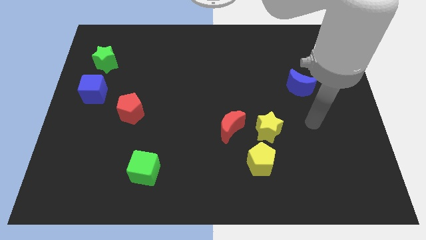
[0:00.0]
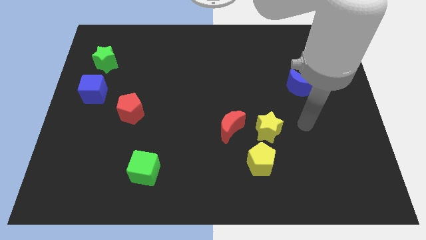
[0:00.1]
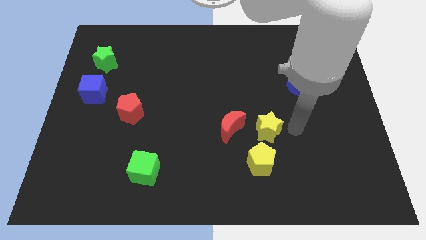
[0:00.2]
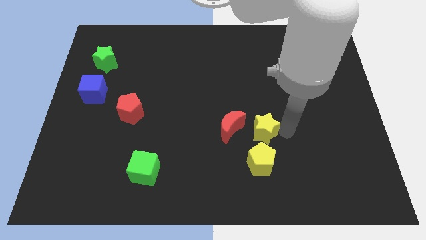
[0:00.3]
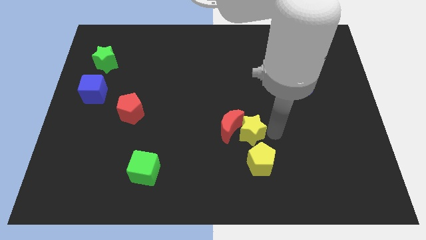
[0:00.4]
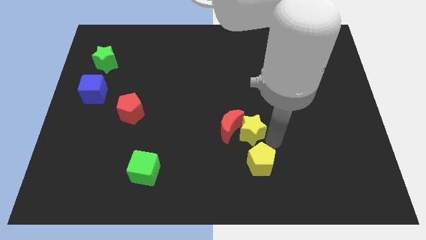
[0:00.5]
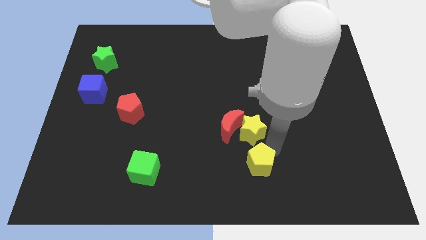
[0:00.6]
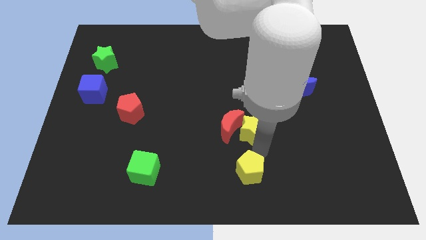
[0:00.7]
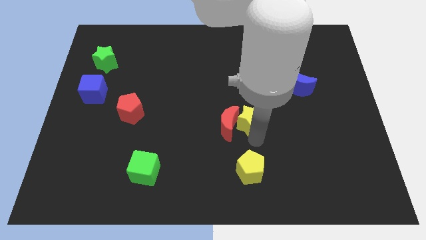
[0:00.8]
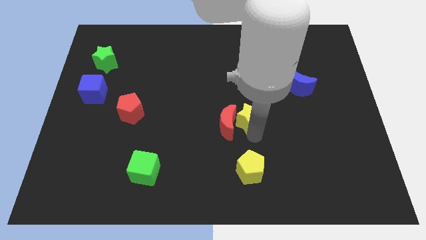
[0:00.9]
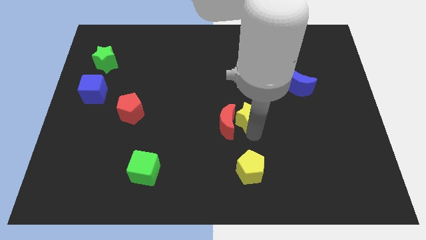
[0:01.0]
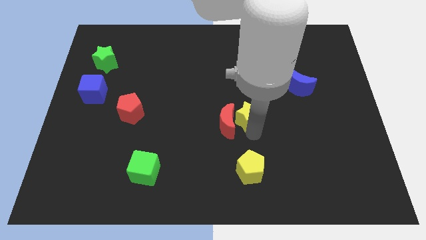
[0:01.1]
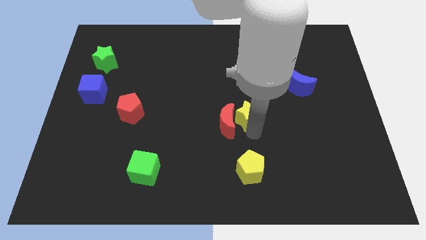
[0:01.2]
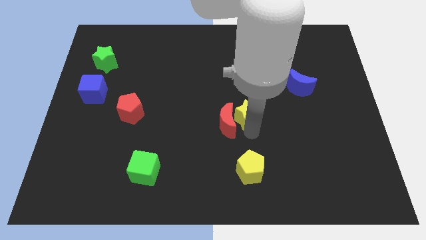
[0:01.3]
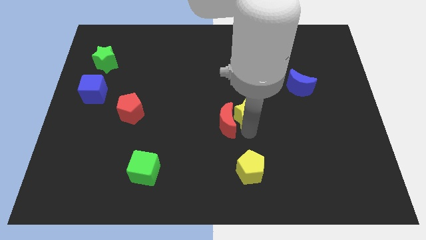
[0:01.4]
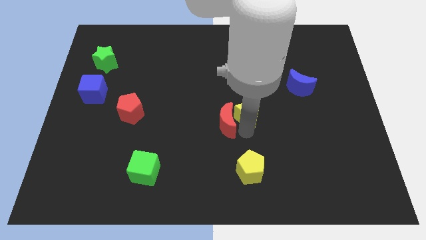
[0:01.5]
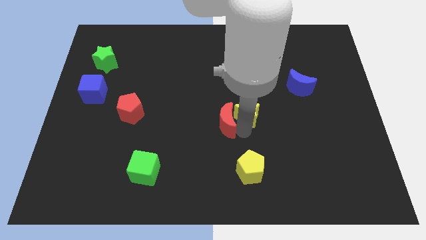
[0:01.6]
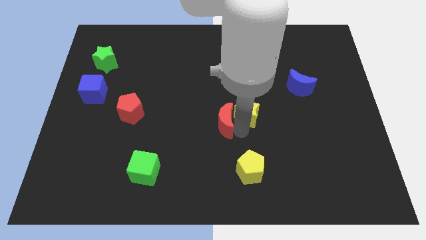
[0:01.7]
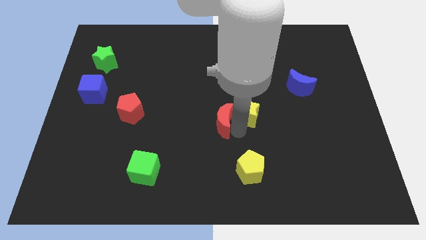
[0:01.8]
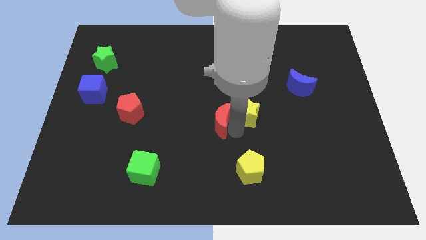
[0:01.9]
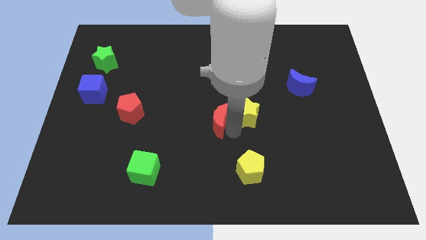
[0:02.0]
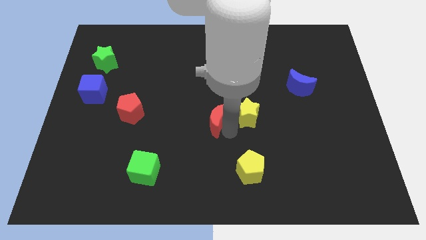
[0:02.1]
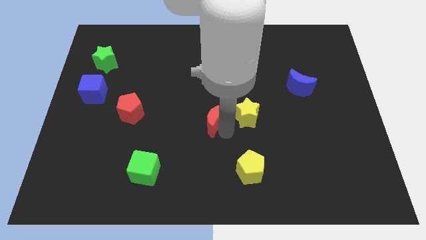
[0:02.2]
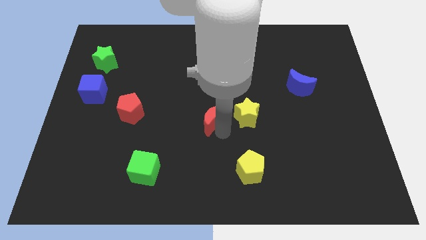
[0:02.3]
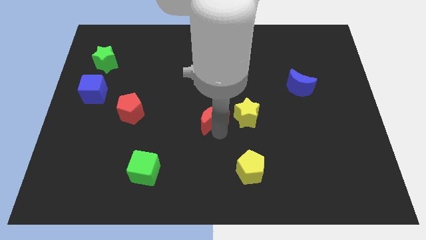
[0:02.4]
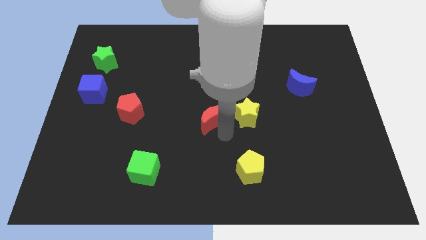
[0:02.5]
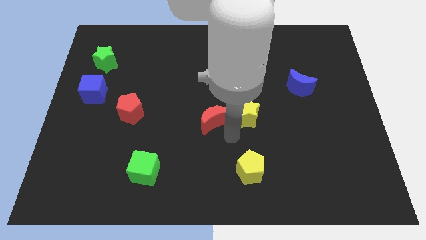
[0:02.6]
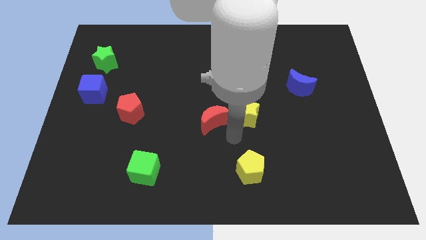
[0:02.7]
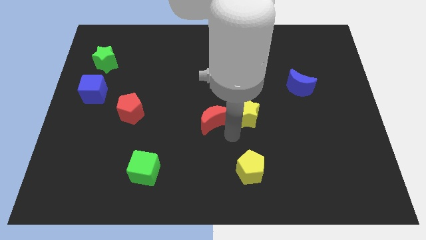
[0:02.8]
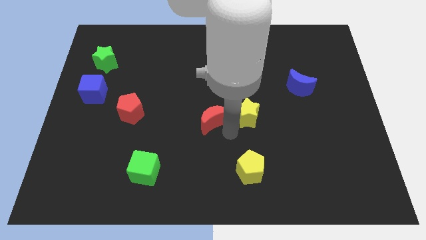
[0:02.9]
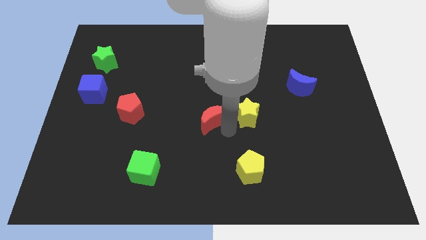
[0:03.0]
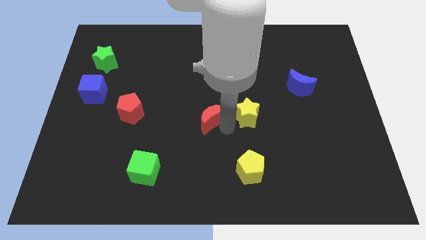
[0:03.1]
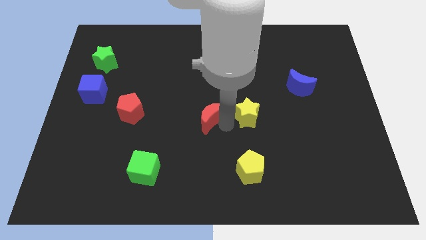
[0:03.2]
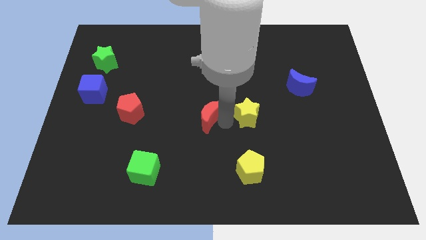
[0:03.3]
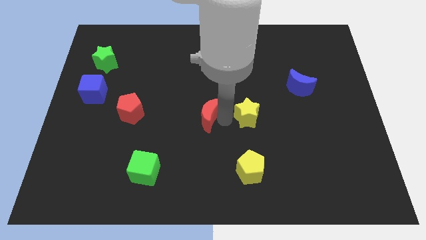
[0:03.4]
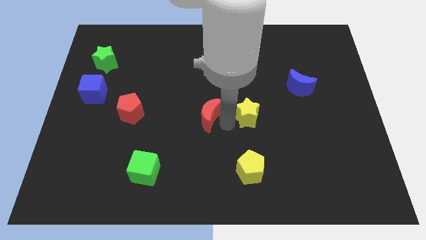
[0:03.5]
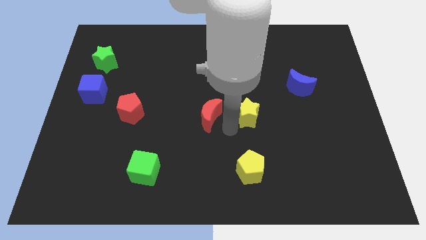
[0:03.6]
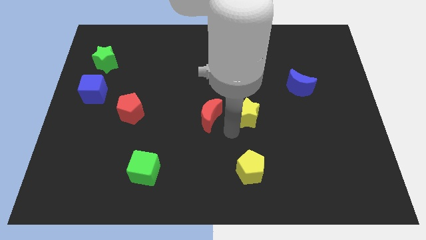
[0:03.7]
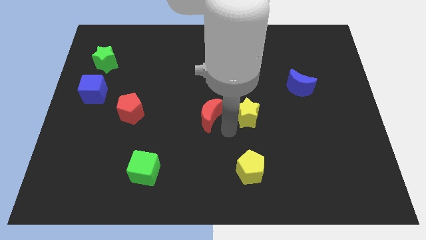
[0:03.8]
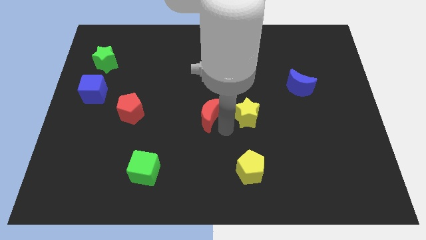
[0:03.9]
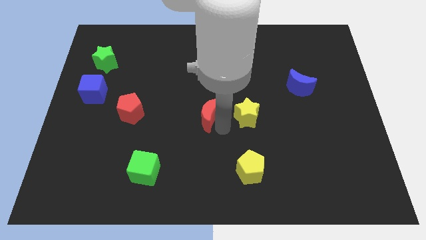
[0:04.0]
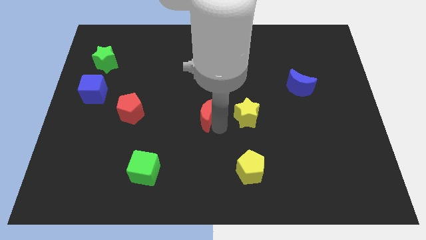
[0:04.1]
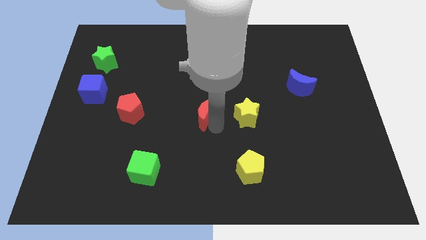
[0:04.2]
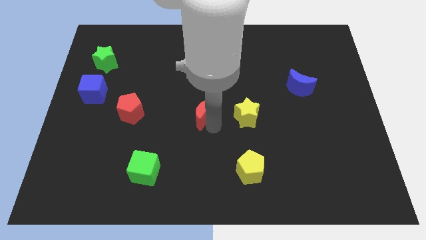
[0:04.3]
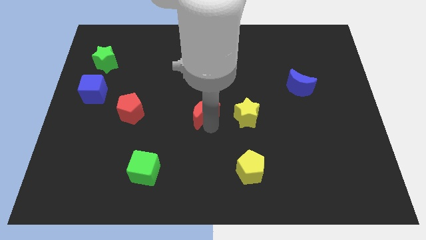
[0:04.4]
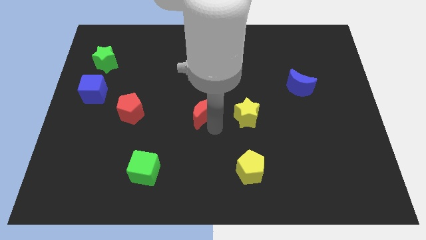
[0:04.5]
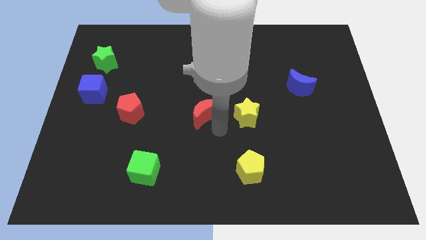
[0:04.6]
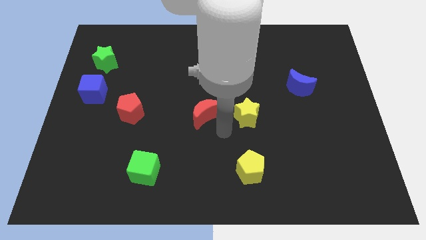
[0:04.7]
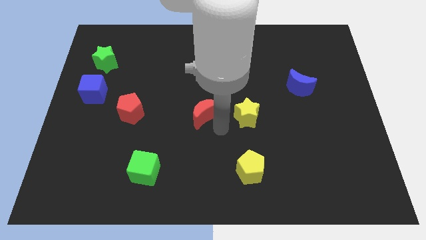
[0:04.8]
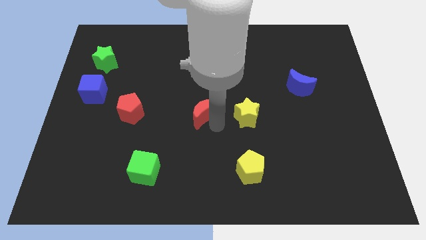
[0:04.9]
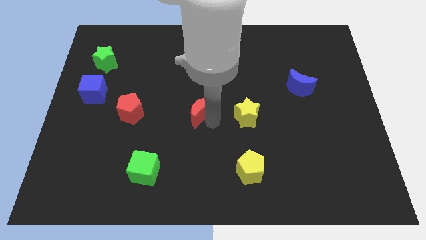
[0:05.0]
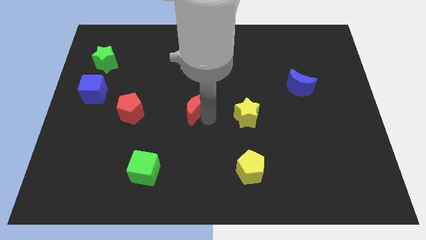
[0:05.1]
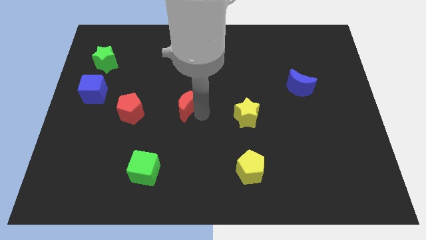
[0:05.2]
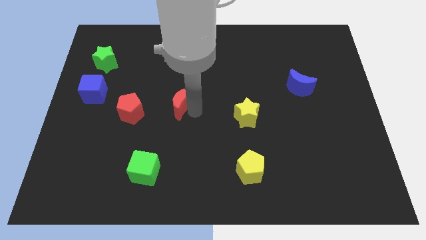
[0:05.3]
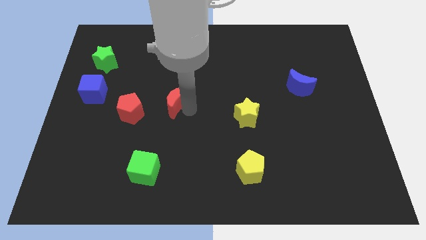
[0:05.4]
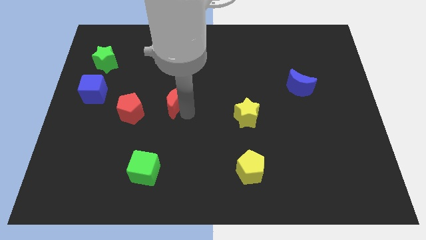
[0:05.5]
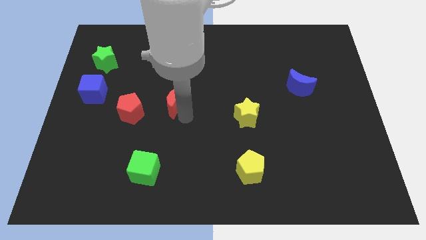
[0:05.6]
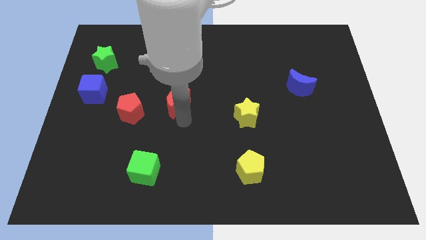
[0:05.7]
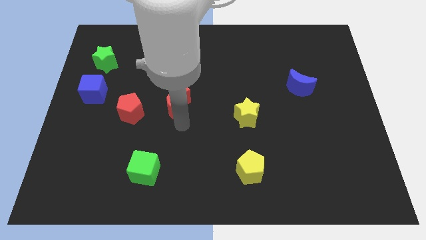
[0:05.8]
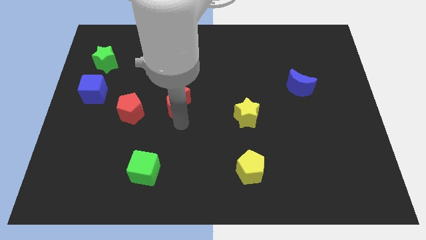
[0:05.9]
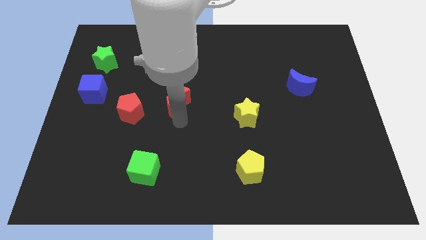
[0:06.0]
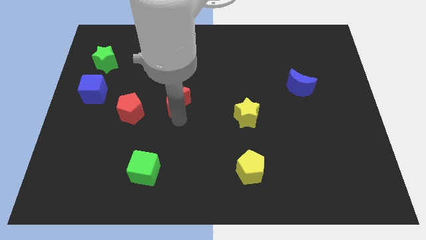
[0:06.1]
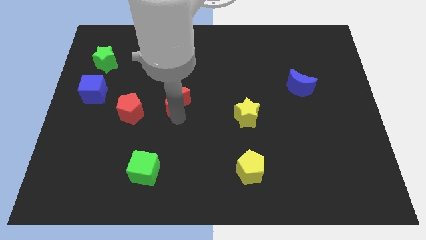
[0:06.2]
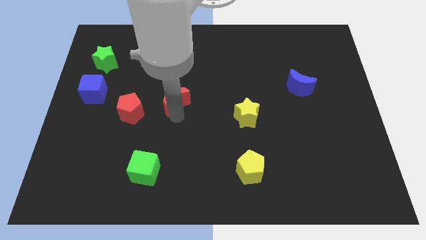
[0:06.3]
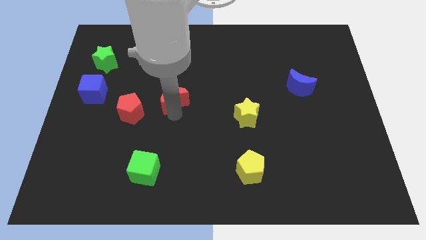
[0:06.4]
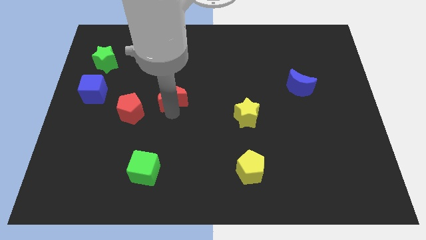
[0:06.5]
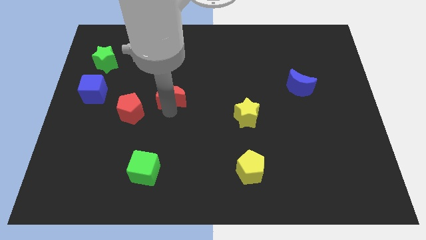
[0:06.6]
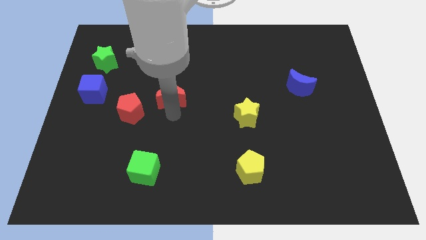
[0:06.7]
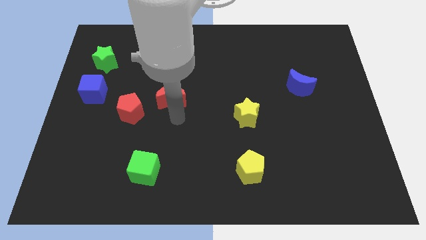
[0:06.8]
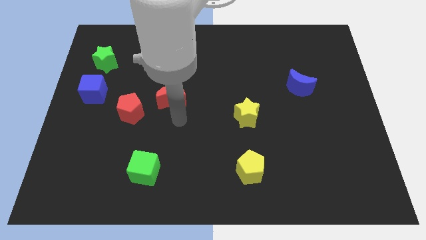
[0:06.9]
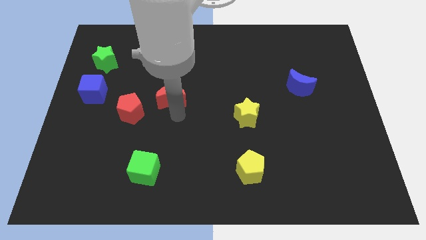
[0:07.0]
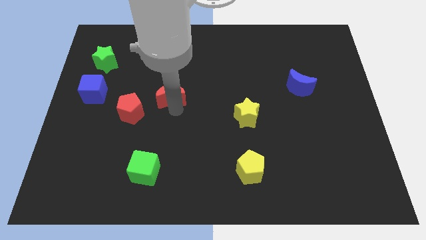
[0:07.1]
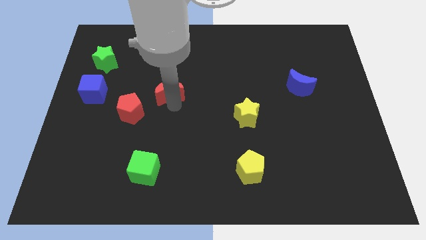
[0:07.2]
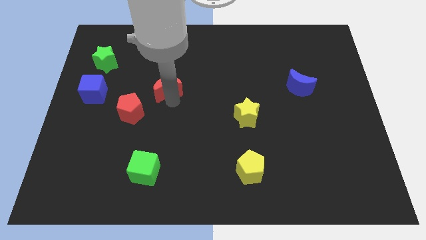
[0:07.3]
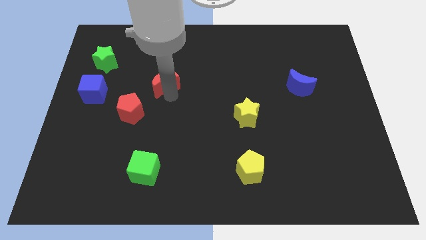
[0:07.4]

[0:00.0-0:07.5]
slide the red moon upwards and to the left

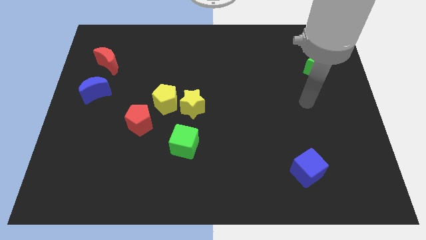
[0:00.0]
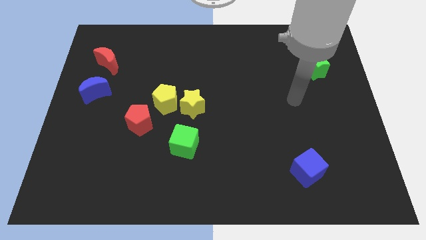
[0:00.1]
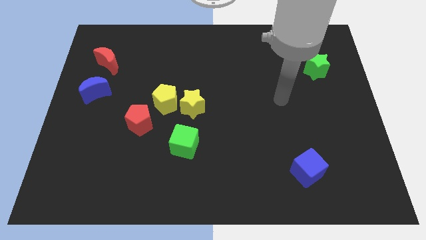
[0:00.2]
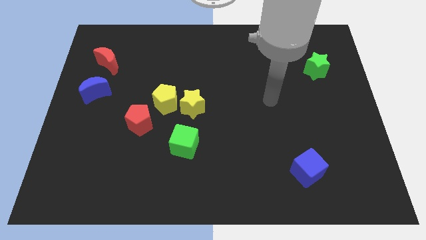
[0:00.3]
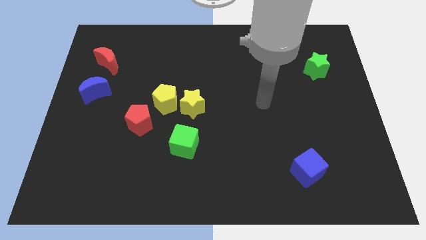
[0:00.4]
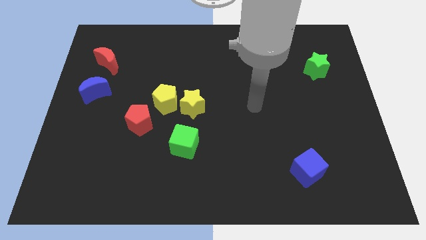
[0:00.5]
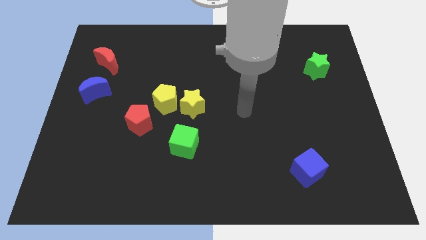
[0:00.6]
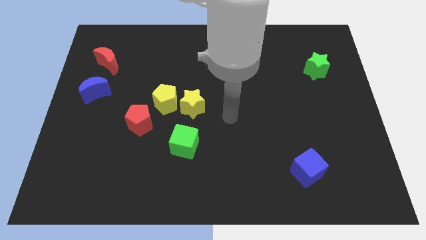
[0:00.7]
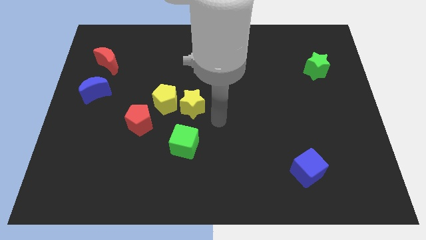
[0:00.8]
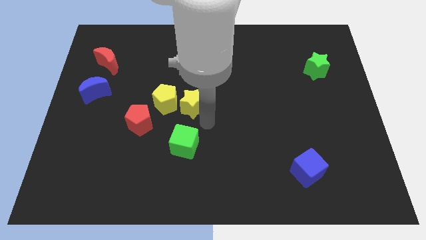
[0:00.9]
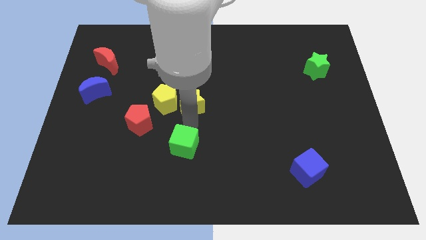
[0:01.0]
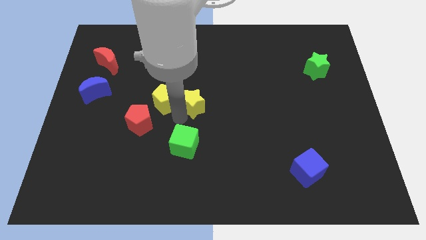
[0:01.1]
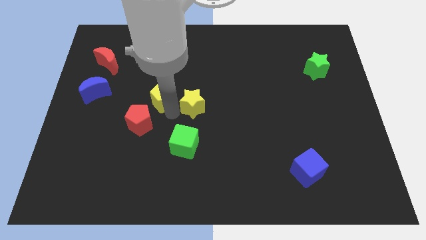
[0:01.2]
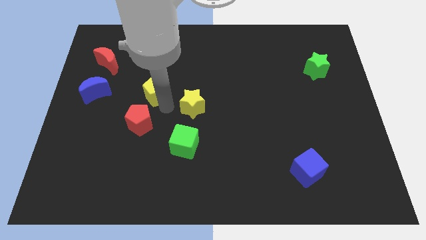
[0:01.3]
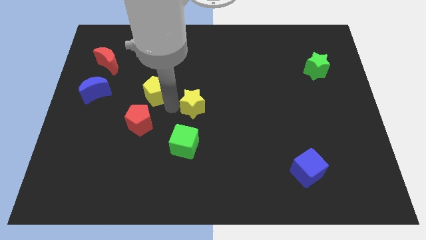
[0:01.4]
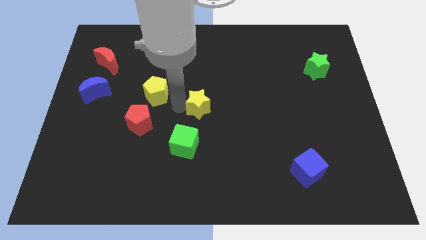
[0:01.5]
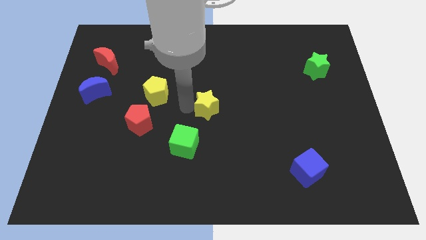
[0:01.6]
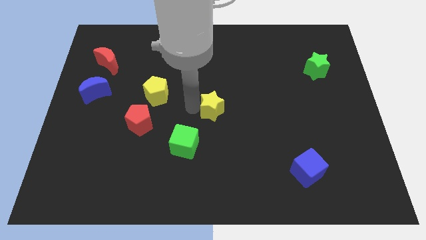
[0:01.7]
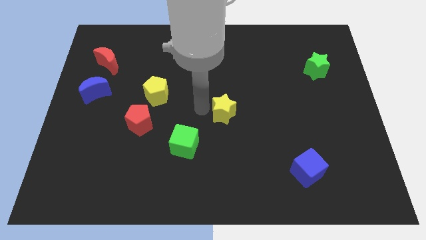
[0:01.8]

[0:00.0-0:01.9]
move the yellow star right a little
